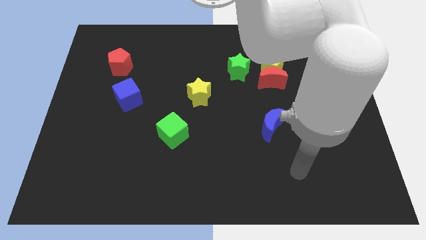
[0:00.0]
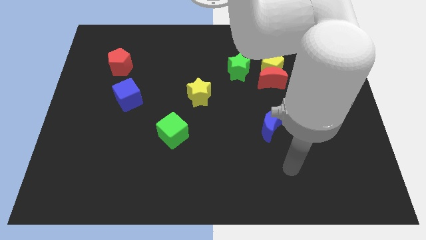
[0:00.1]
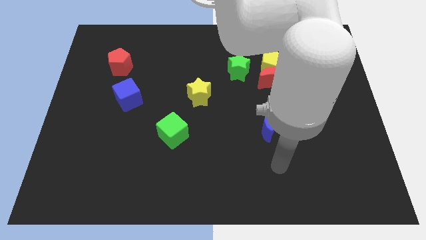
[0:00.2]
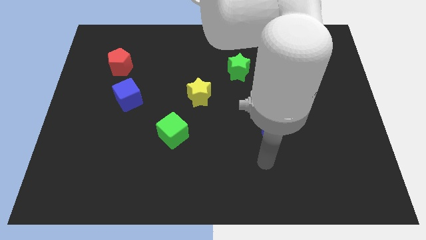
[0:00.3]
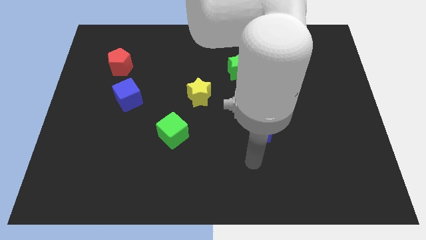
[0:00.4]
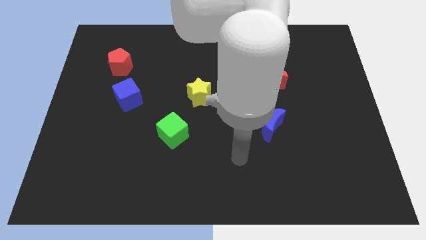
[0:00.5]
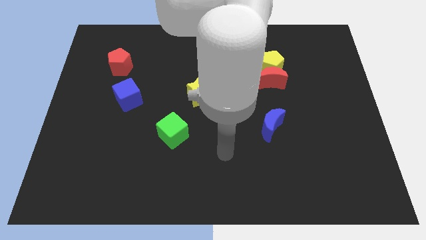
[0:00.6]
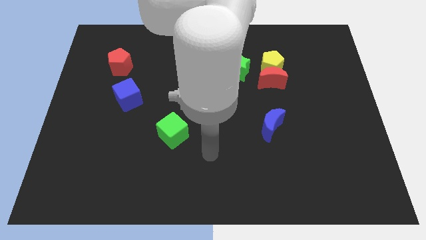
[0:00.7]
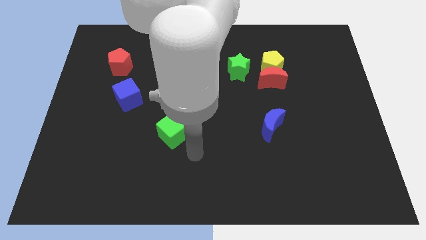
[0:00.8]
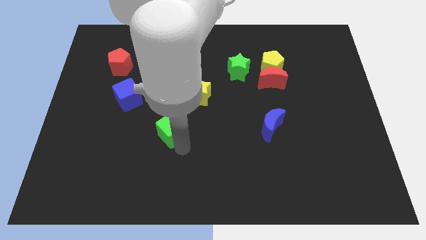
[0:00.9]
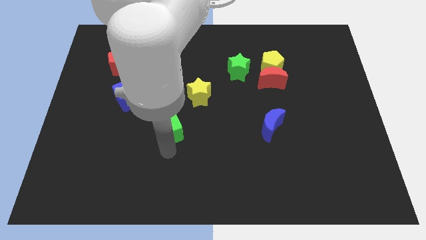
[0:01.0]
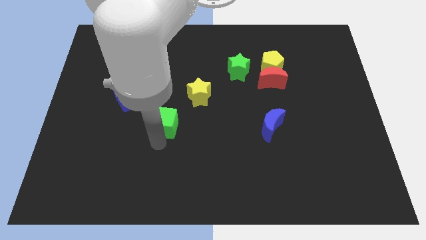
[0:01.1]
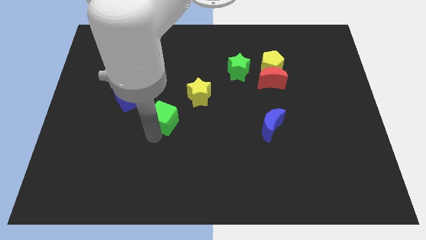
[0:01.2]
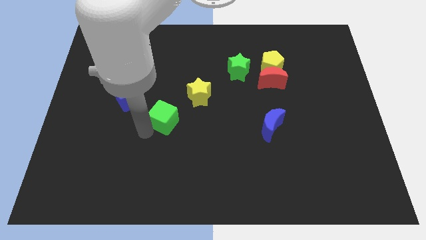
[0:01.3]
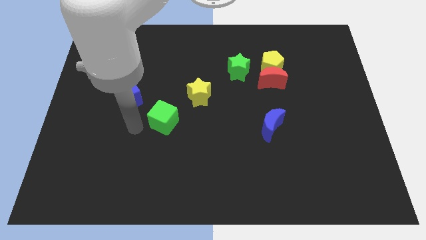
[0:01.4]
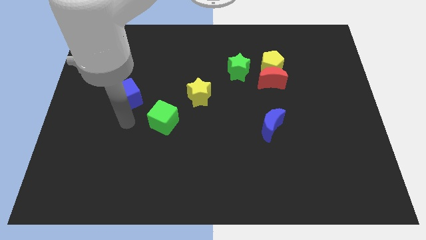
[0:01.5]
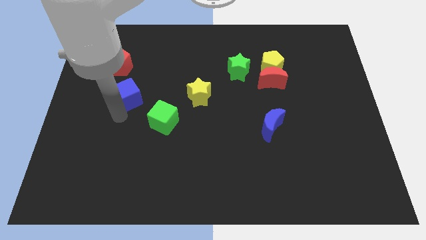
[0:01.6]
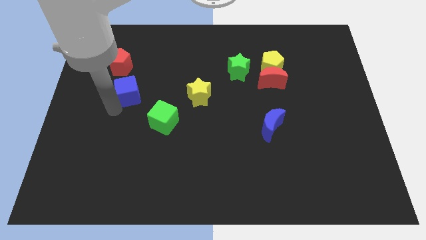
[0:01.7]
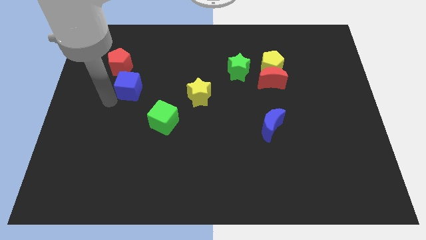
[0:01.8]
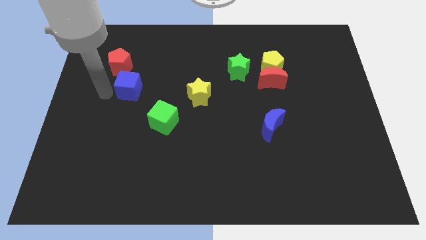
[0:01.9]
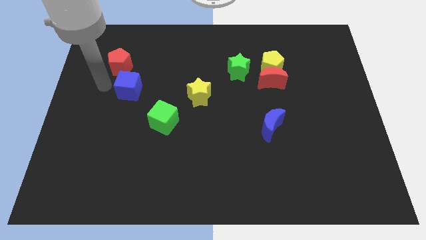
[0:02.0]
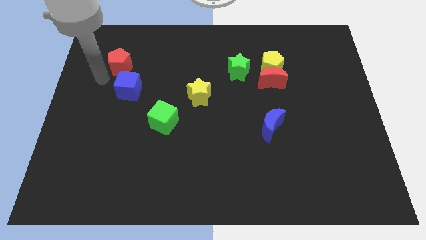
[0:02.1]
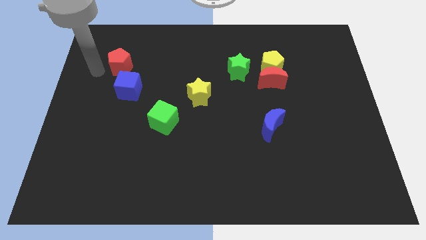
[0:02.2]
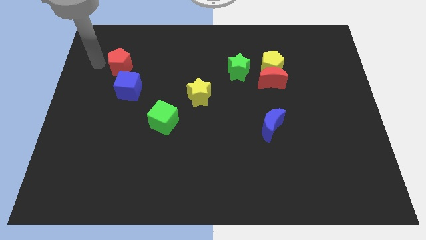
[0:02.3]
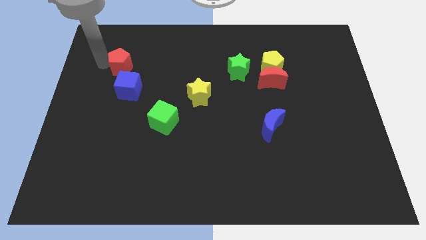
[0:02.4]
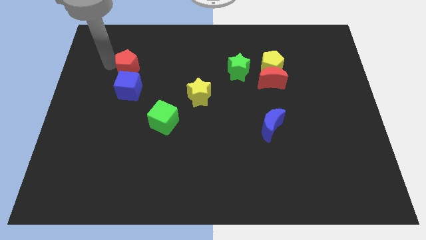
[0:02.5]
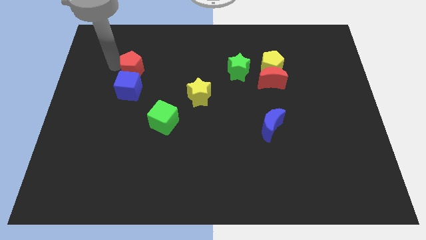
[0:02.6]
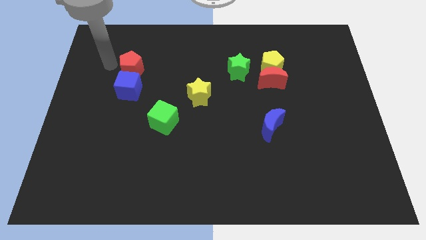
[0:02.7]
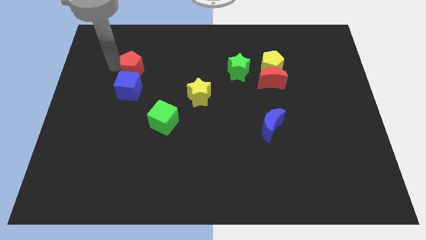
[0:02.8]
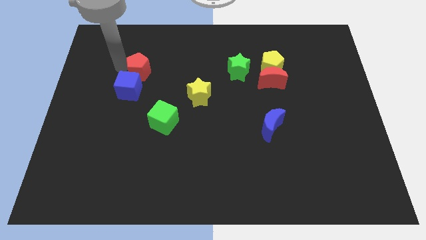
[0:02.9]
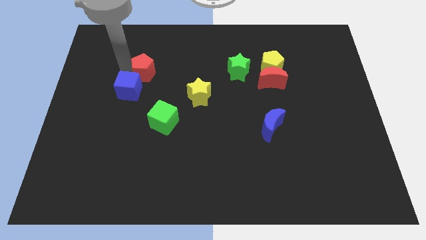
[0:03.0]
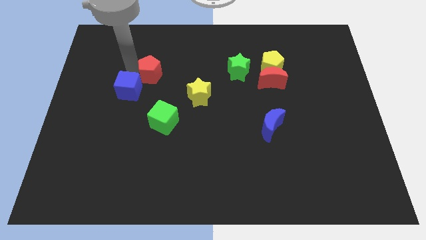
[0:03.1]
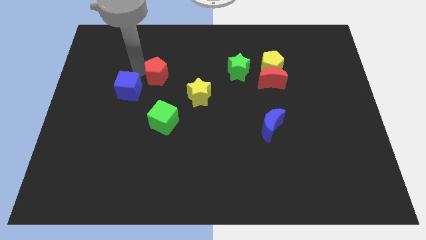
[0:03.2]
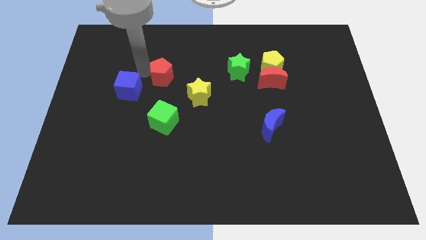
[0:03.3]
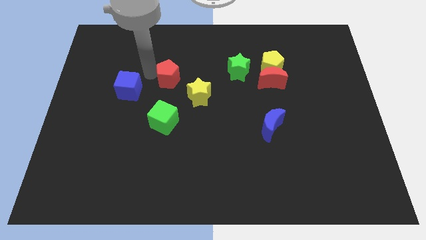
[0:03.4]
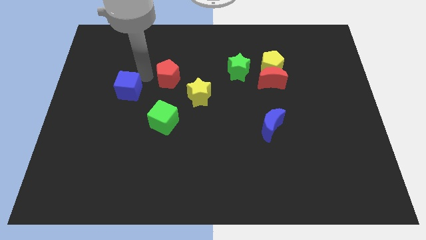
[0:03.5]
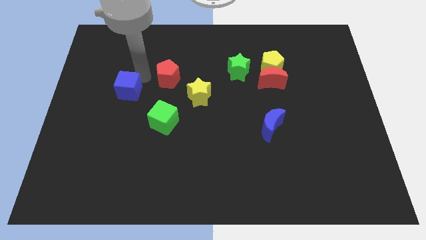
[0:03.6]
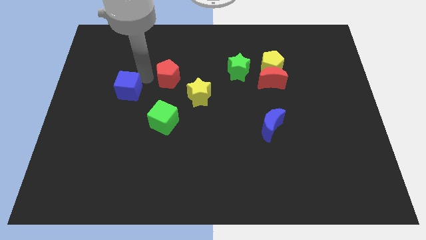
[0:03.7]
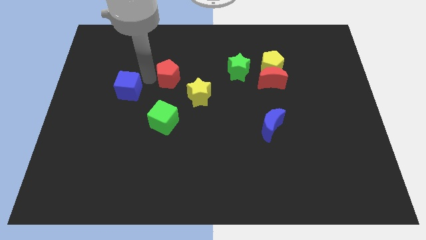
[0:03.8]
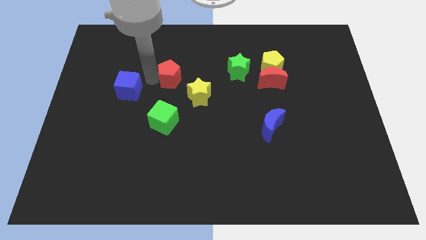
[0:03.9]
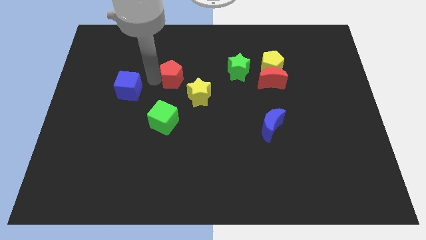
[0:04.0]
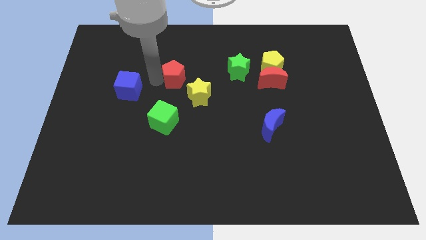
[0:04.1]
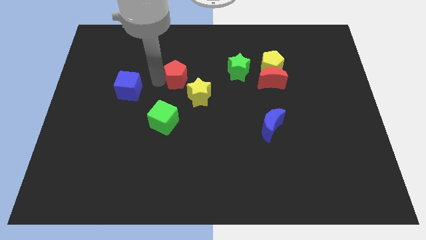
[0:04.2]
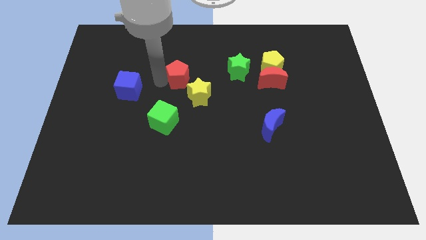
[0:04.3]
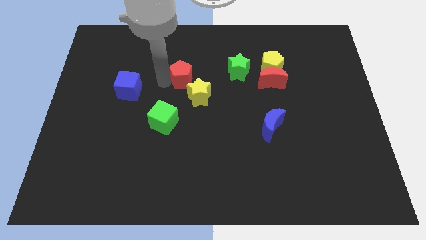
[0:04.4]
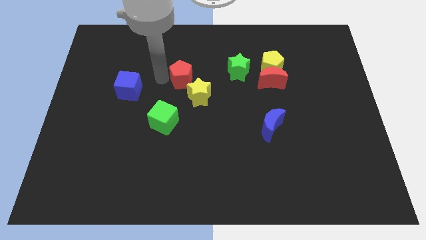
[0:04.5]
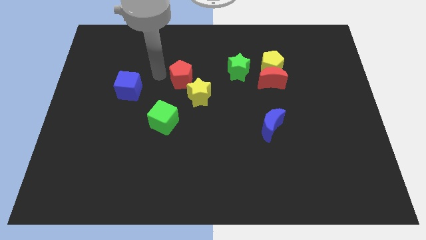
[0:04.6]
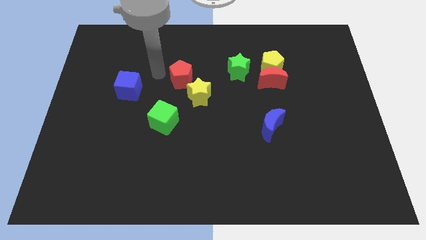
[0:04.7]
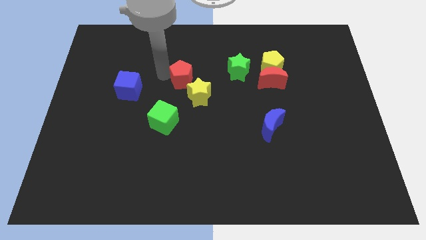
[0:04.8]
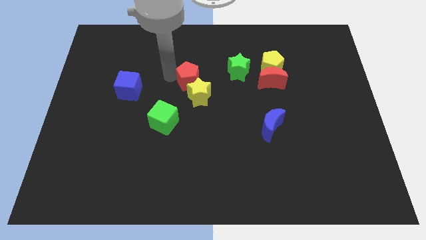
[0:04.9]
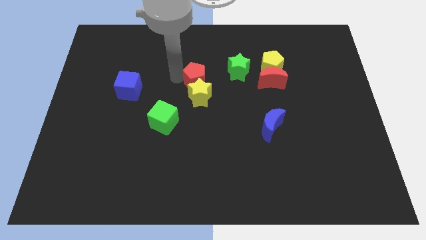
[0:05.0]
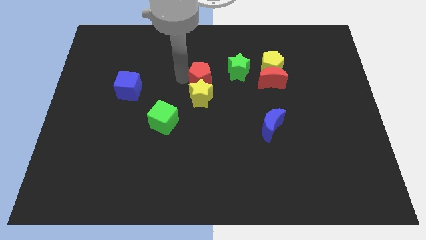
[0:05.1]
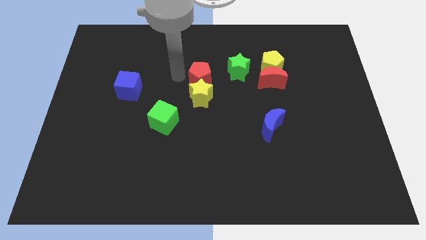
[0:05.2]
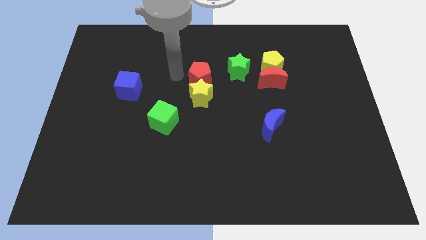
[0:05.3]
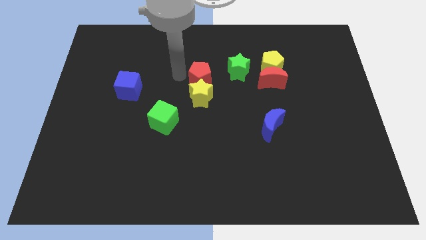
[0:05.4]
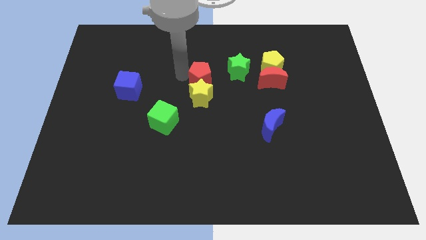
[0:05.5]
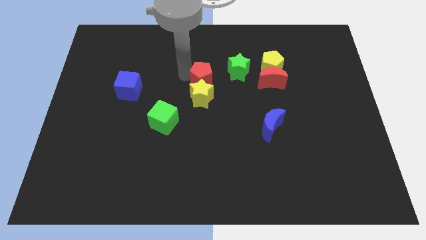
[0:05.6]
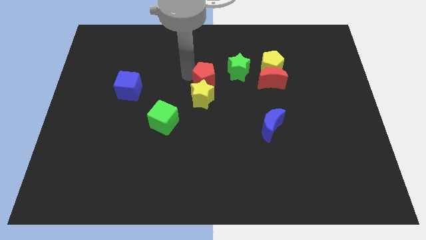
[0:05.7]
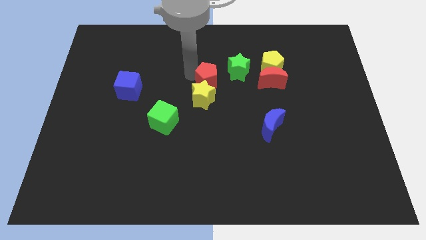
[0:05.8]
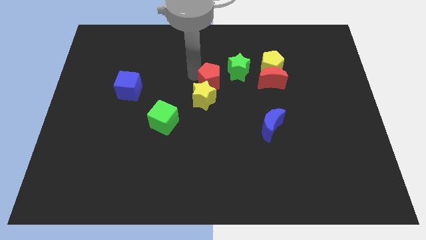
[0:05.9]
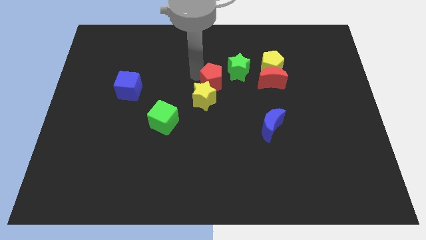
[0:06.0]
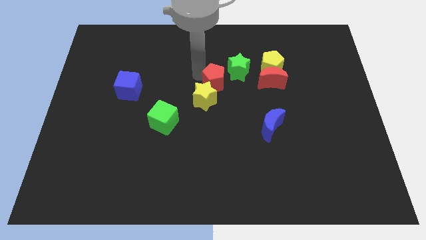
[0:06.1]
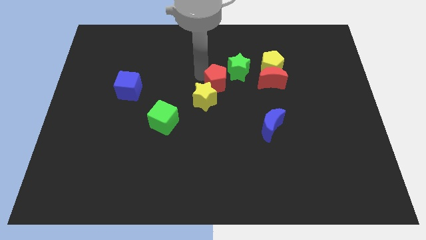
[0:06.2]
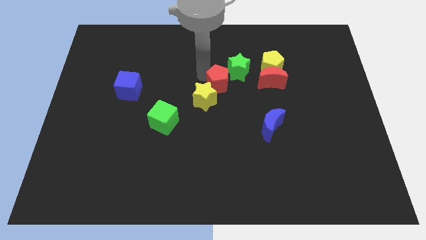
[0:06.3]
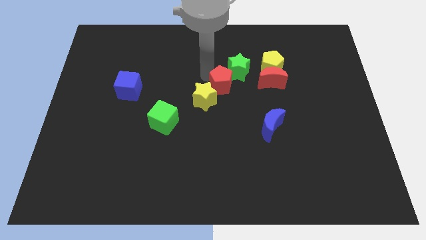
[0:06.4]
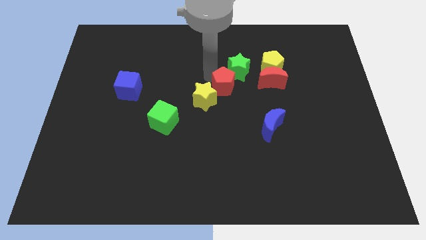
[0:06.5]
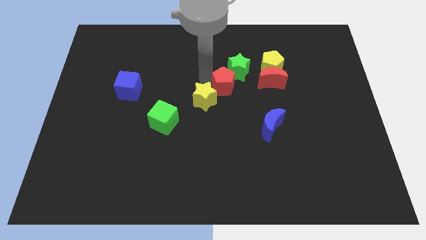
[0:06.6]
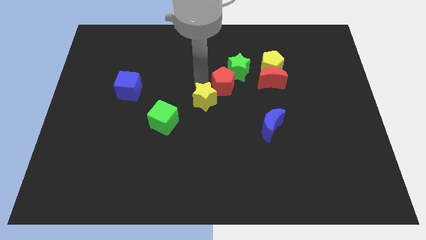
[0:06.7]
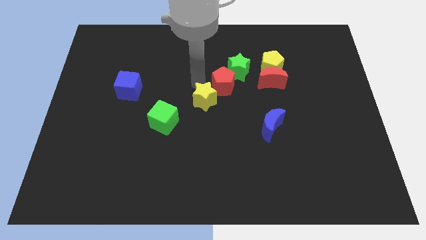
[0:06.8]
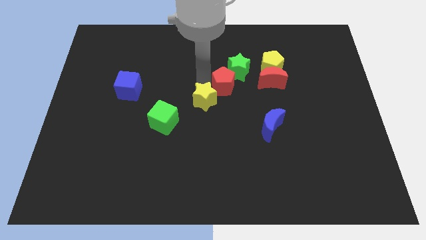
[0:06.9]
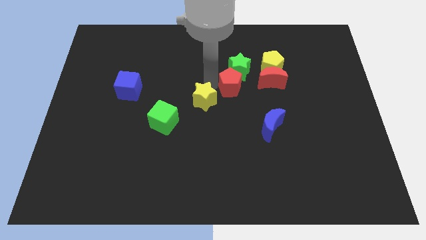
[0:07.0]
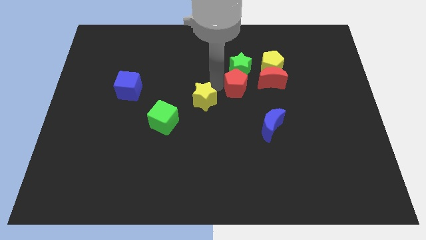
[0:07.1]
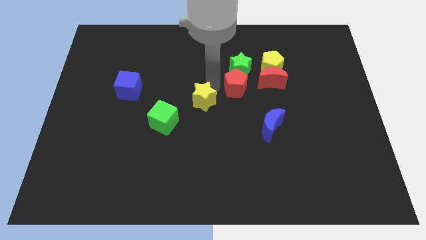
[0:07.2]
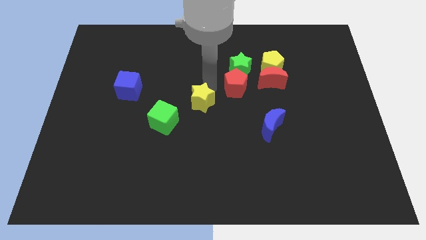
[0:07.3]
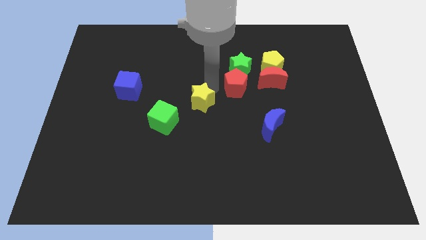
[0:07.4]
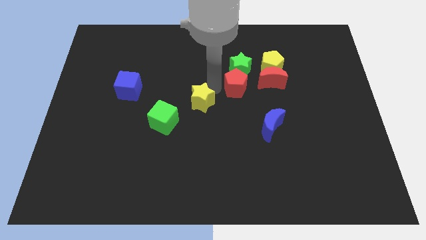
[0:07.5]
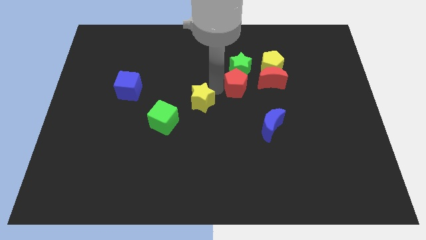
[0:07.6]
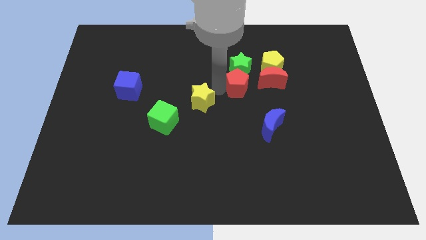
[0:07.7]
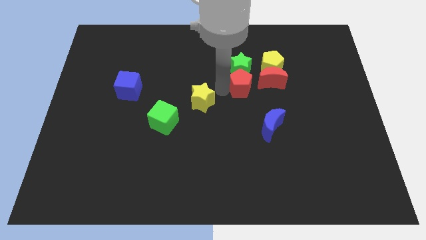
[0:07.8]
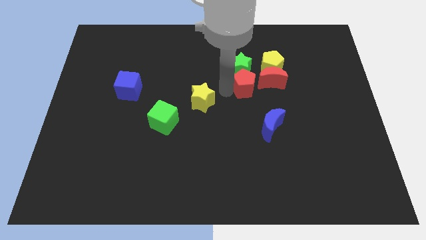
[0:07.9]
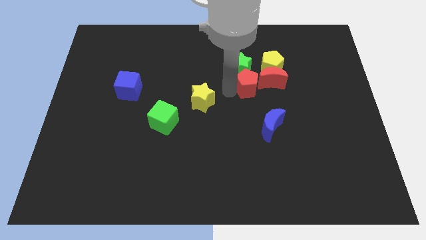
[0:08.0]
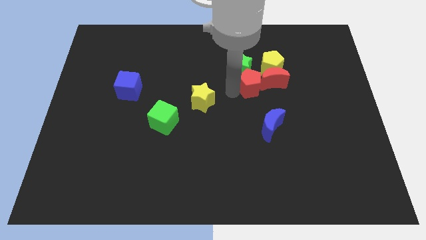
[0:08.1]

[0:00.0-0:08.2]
move the red pentagon to the red moon
